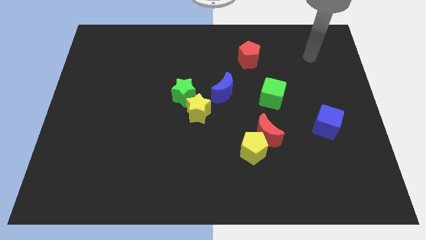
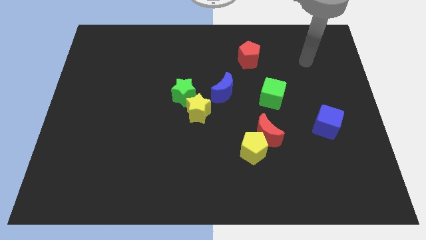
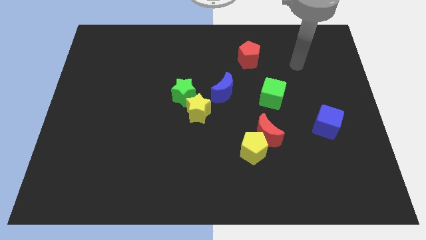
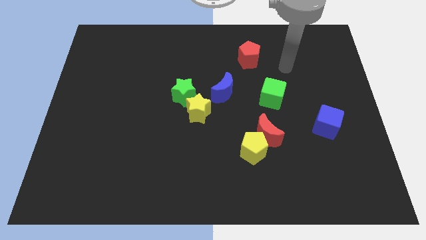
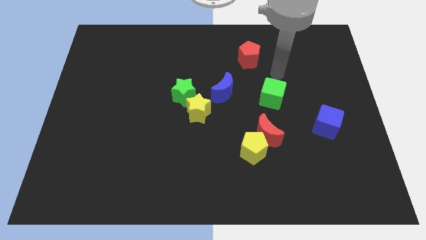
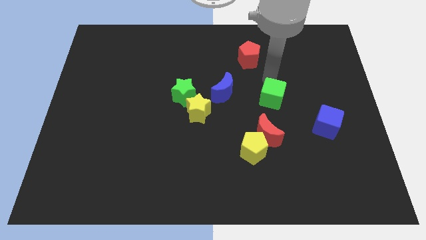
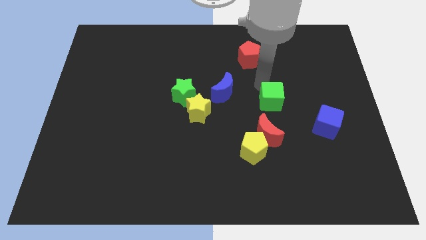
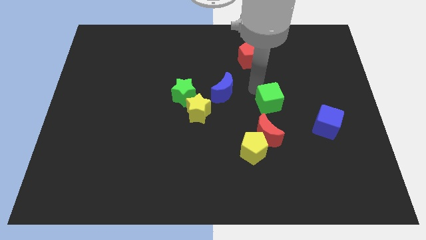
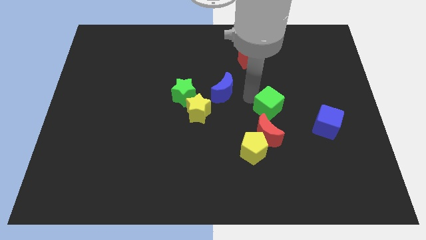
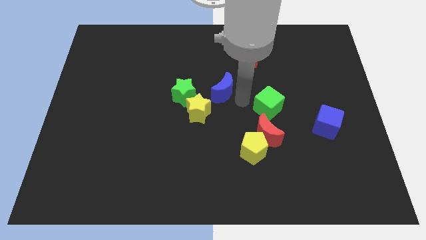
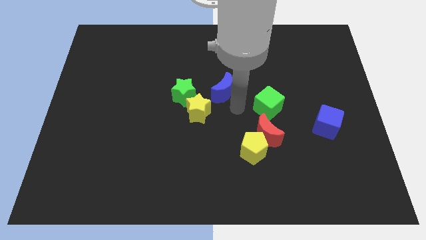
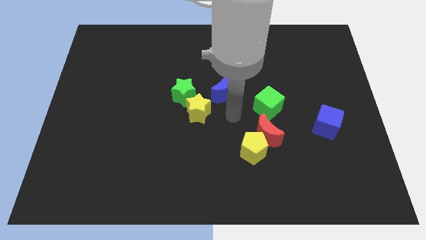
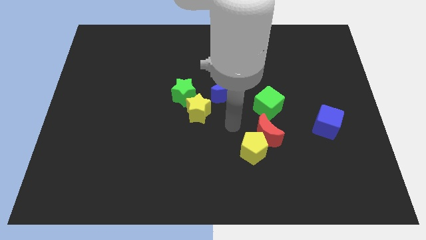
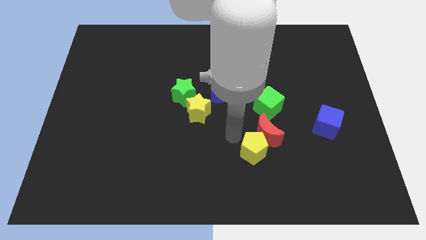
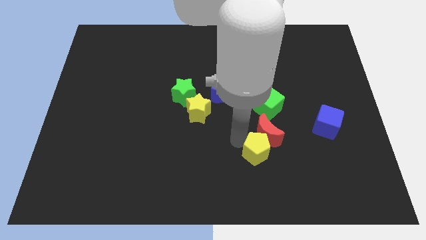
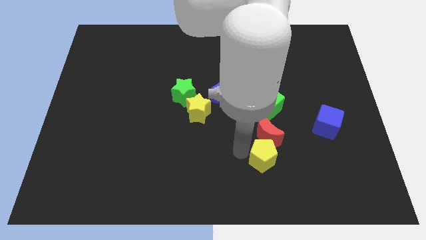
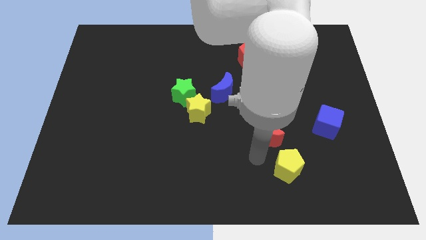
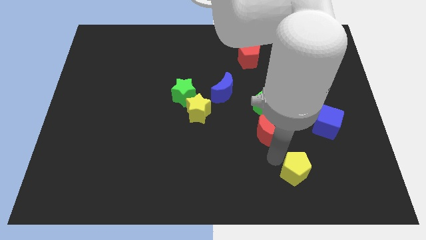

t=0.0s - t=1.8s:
pull the red moon apart from the yellow pentagon

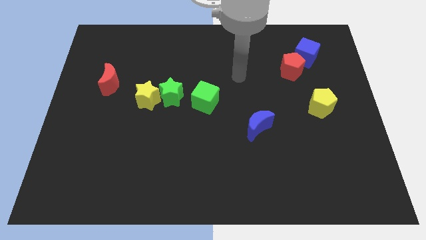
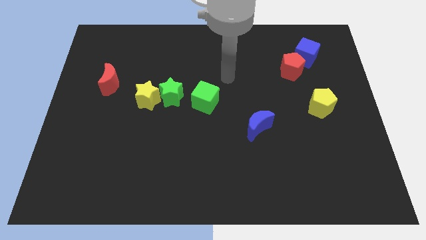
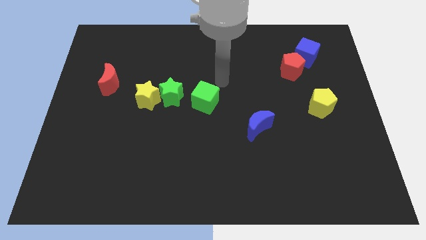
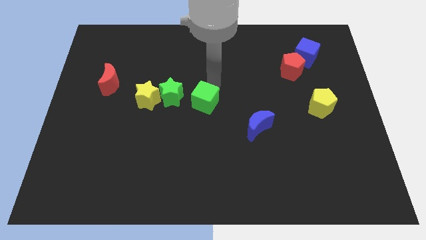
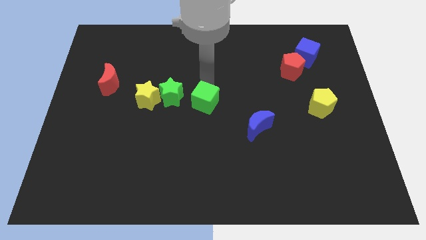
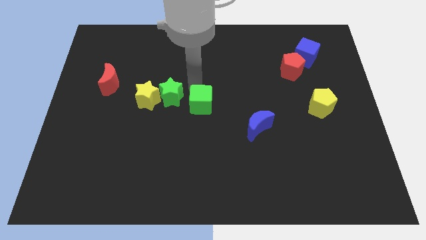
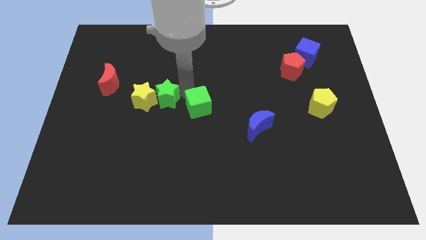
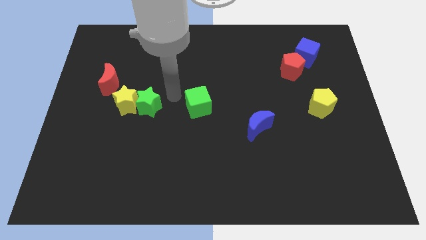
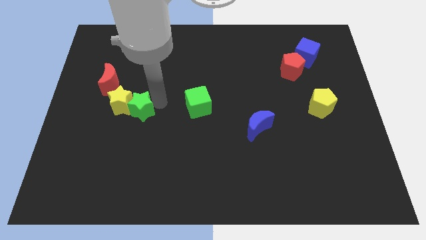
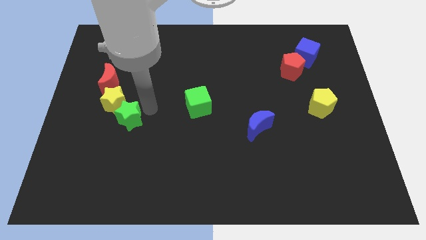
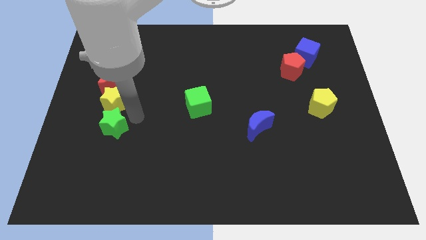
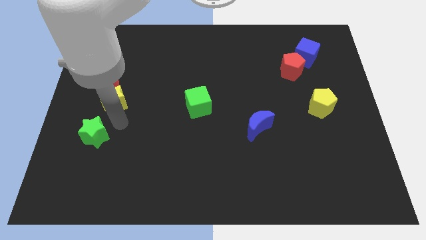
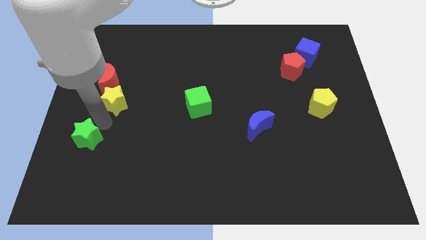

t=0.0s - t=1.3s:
pull the yellow star apart from the green star

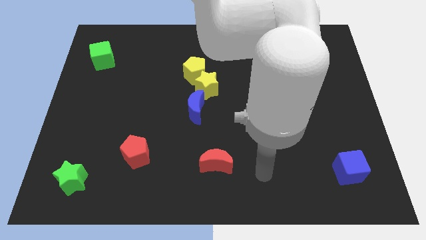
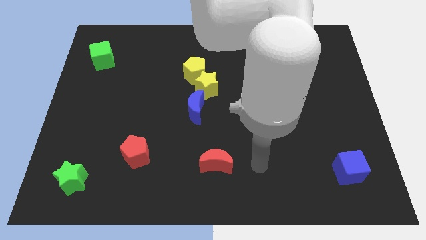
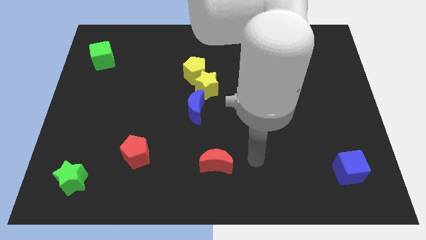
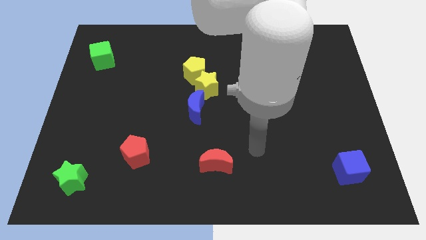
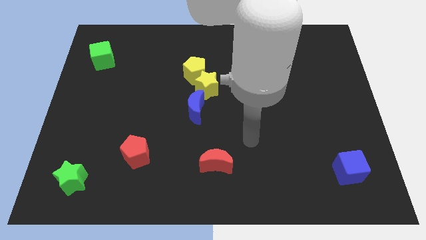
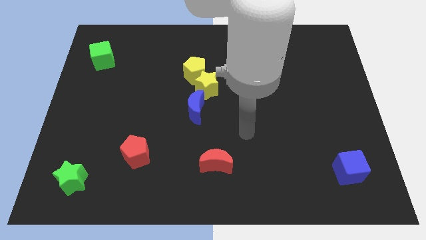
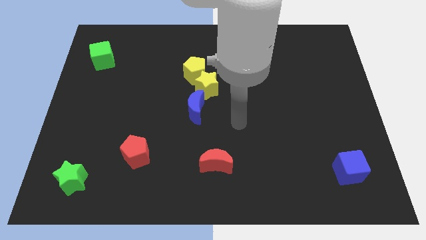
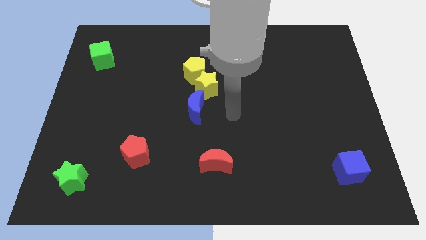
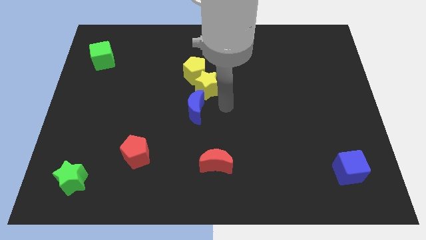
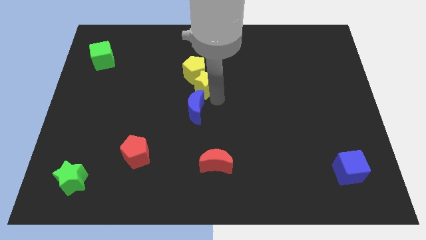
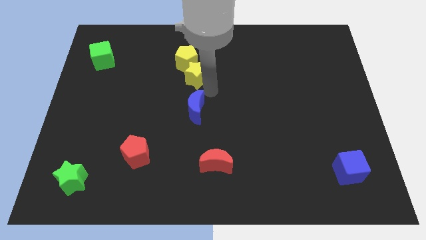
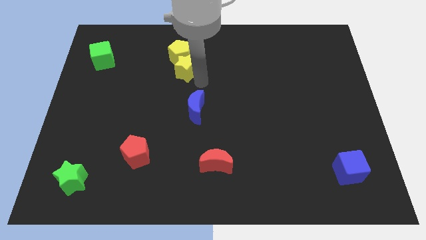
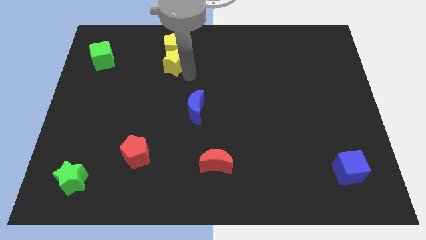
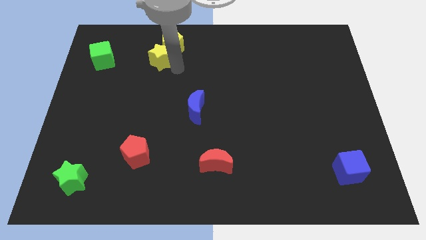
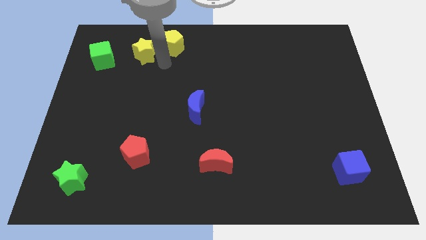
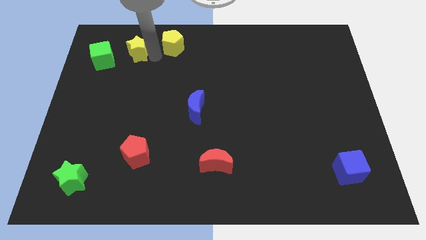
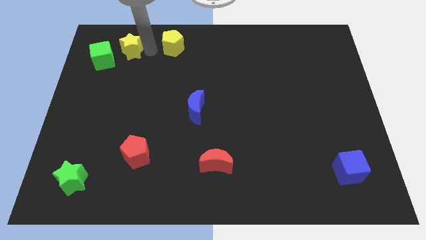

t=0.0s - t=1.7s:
separate the yellow pentagon from the yellow star

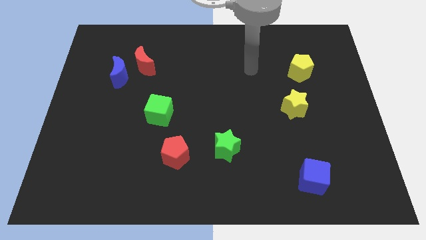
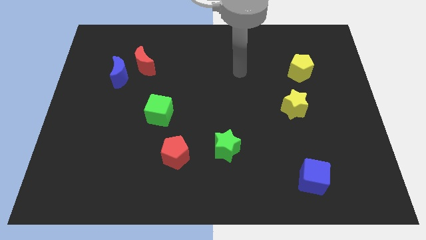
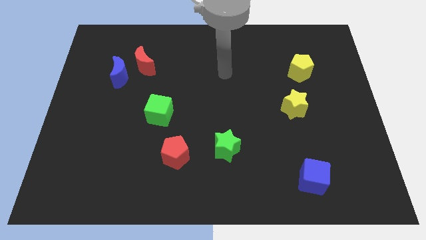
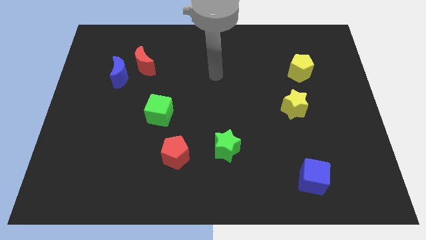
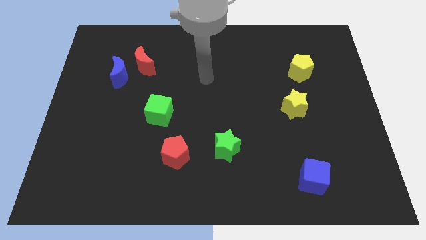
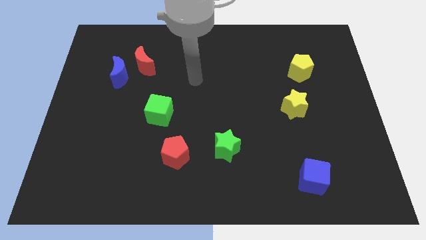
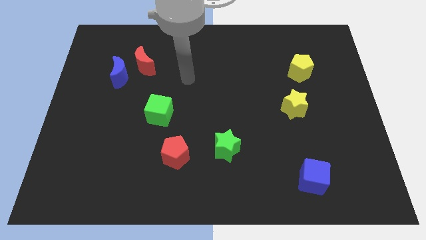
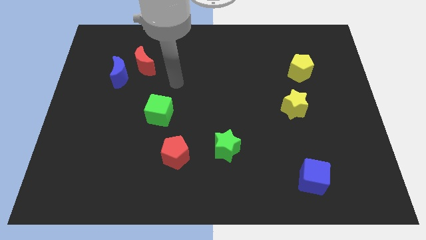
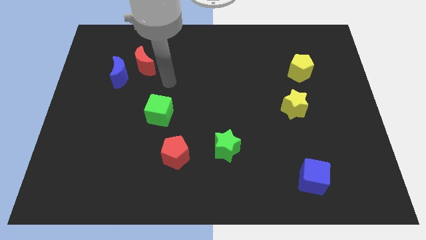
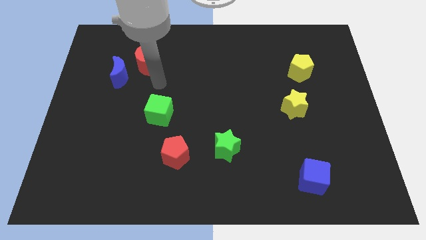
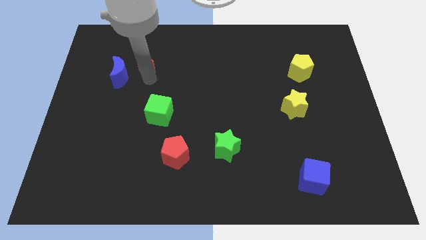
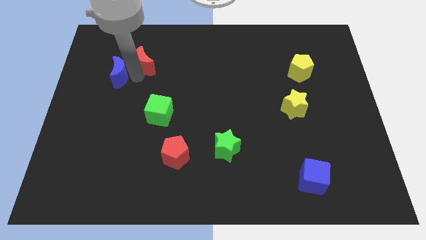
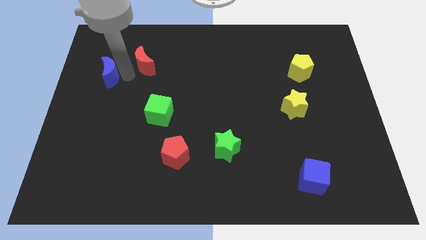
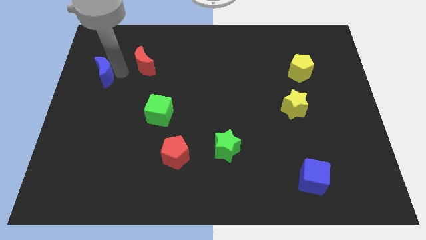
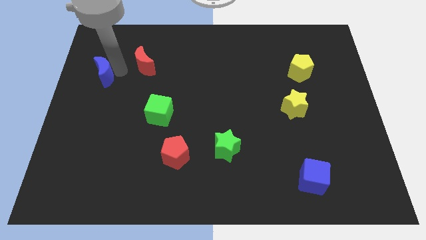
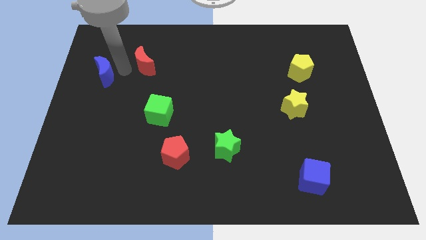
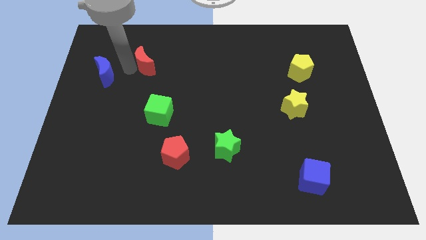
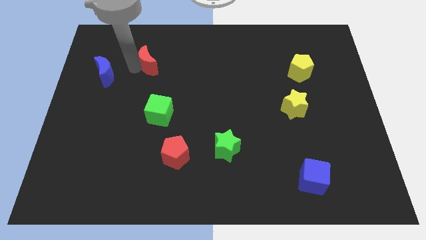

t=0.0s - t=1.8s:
separate the red moon from the blue moon

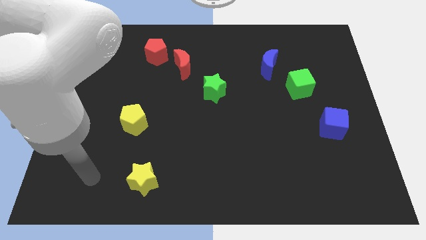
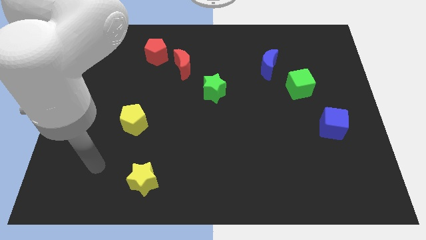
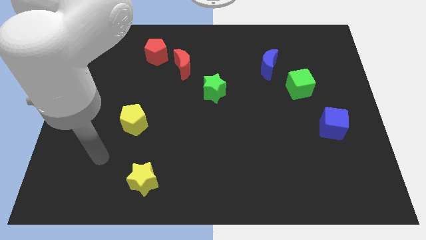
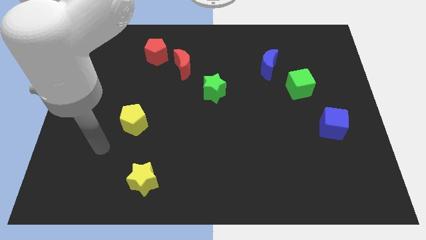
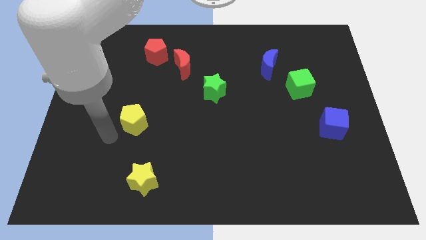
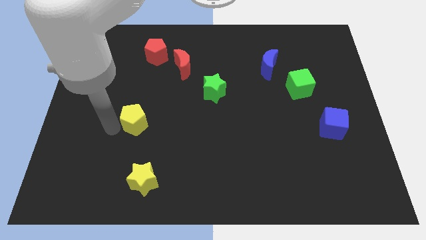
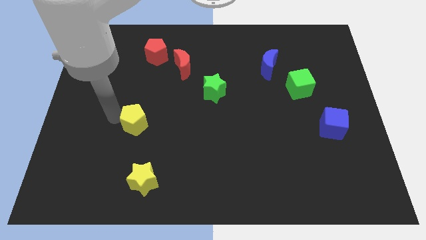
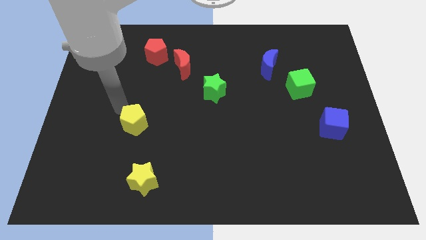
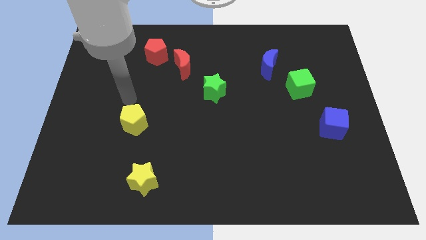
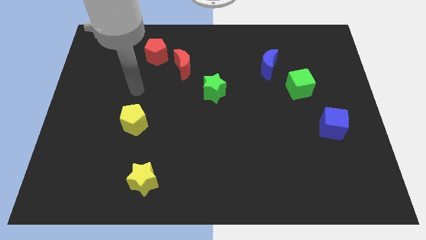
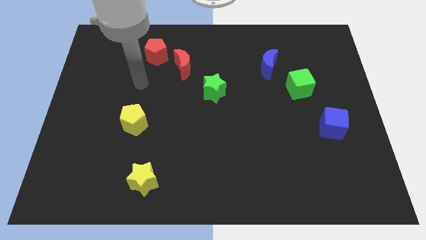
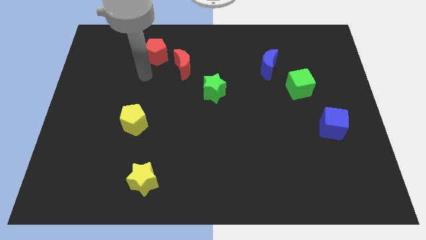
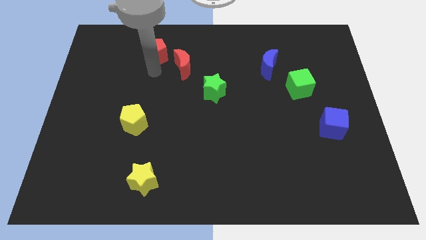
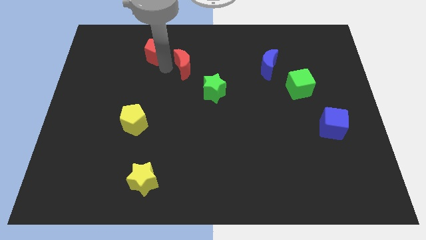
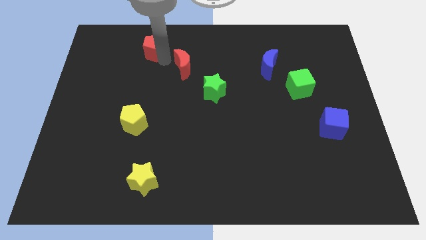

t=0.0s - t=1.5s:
pull the red moon apart from the red pentagon

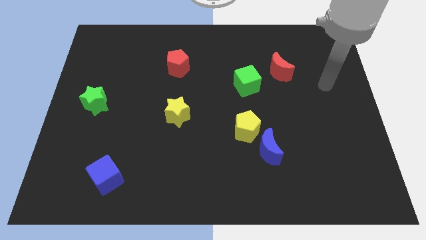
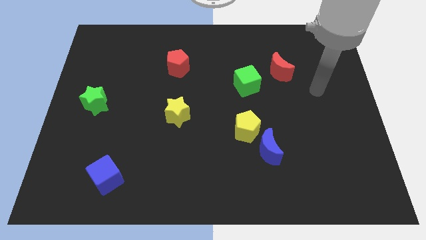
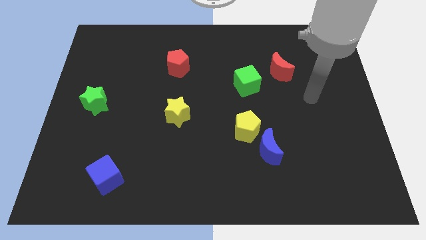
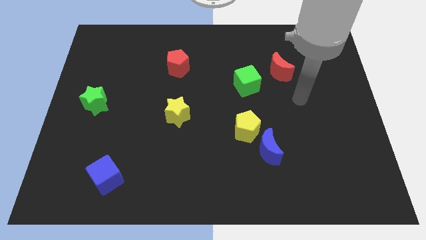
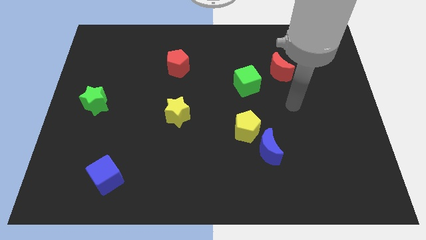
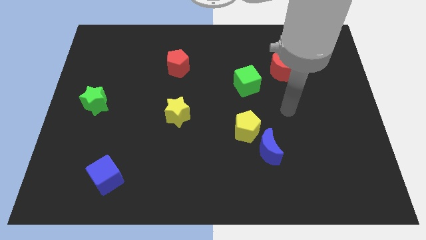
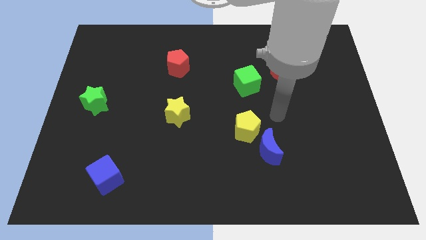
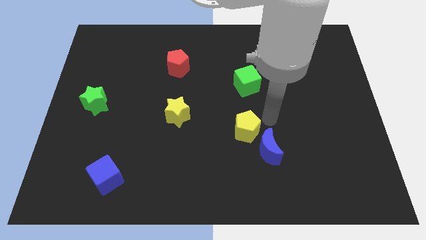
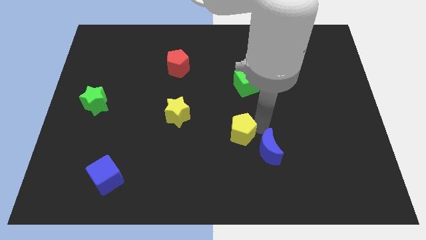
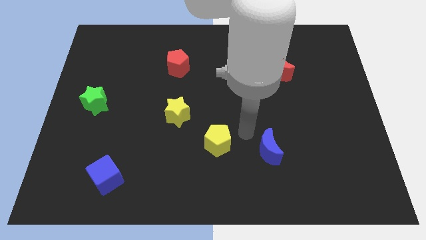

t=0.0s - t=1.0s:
pull the blue moon apart from the yellow pentagon
